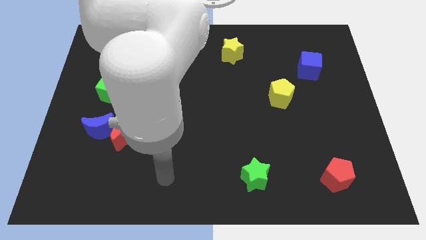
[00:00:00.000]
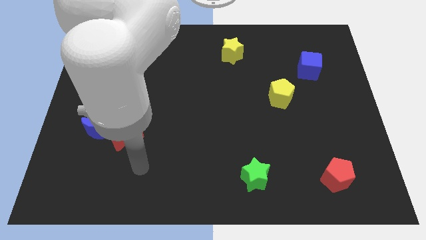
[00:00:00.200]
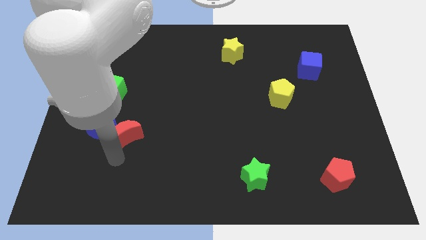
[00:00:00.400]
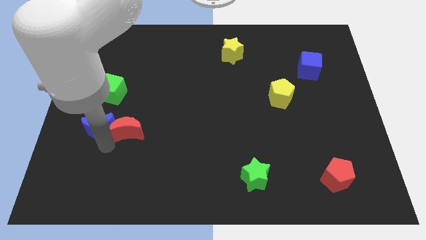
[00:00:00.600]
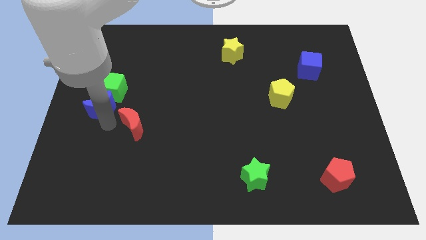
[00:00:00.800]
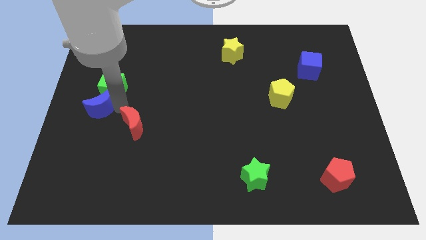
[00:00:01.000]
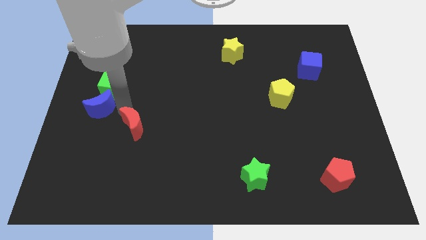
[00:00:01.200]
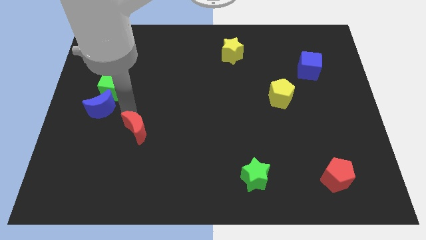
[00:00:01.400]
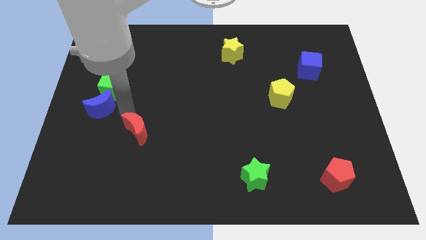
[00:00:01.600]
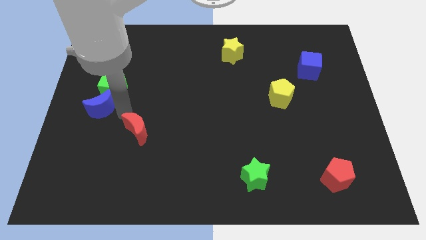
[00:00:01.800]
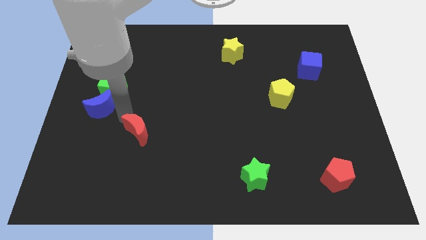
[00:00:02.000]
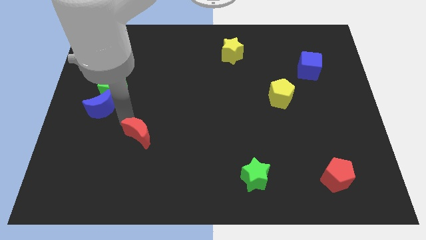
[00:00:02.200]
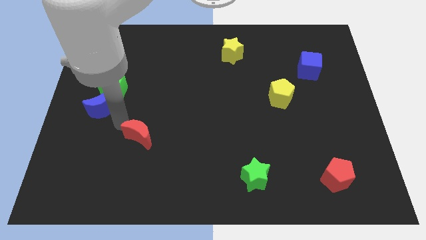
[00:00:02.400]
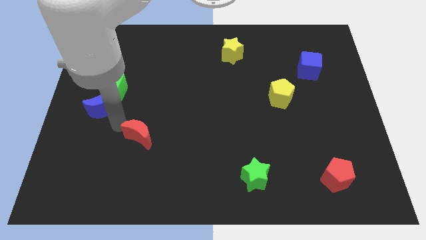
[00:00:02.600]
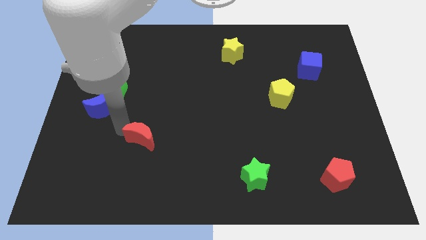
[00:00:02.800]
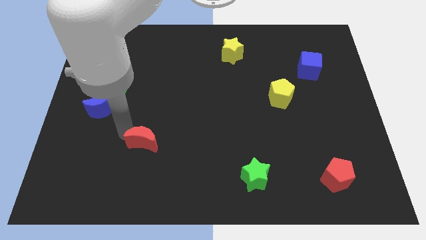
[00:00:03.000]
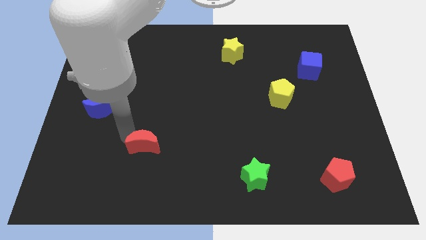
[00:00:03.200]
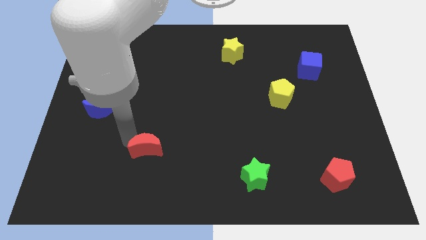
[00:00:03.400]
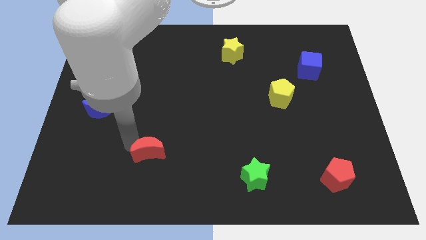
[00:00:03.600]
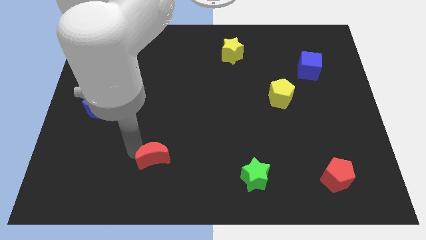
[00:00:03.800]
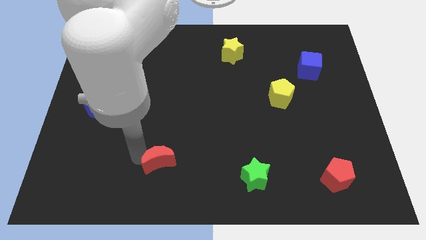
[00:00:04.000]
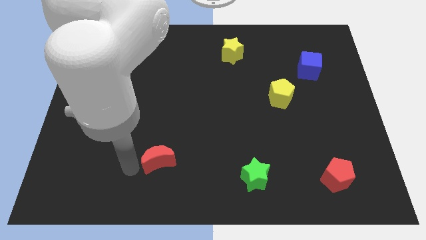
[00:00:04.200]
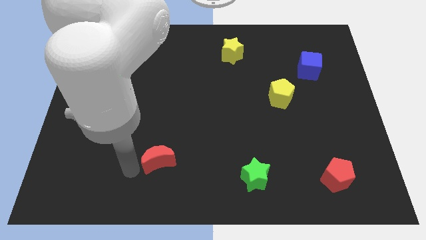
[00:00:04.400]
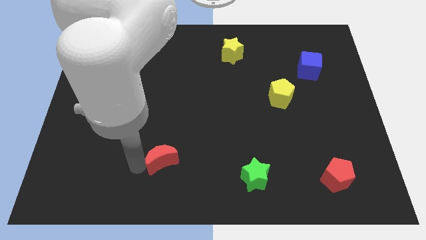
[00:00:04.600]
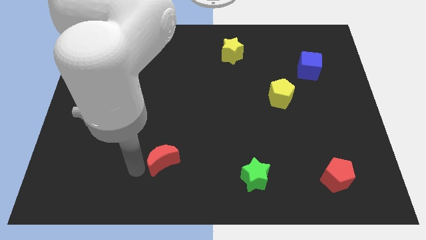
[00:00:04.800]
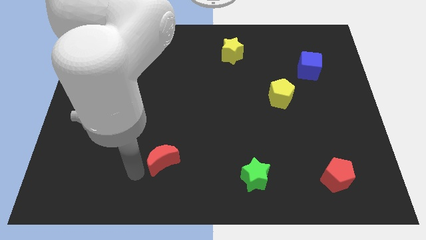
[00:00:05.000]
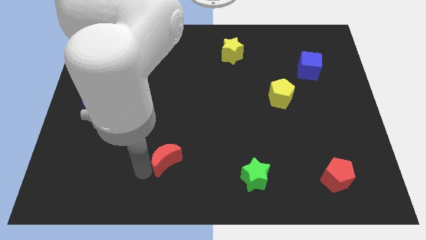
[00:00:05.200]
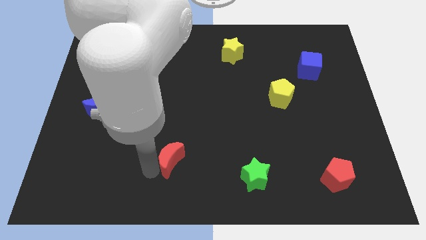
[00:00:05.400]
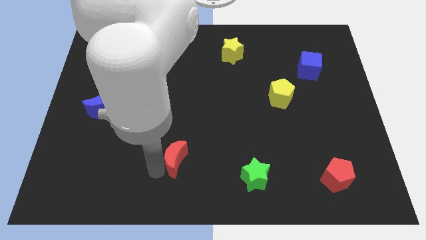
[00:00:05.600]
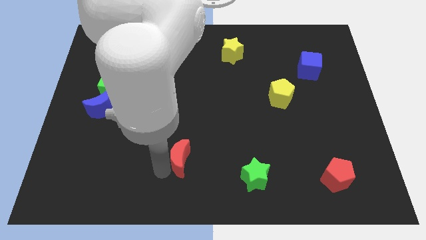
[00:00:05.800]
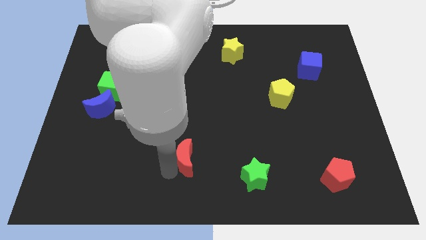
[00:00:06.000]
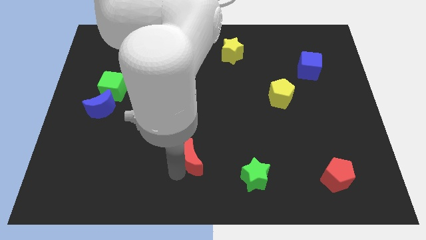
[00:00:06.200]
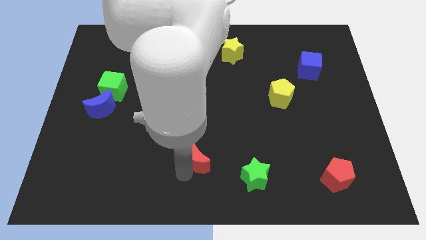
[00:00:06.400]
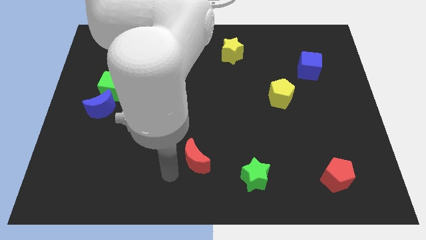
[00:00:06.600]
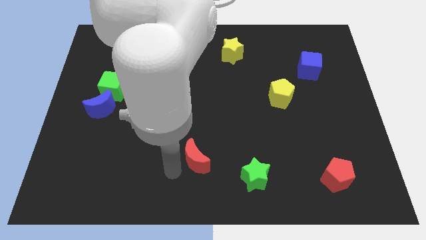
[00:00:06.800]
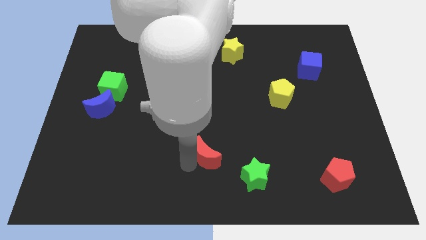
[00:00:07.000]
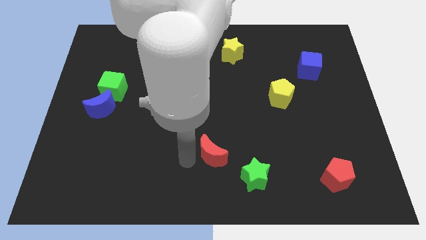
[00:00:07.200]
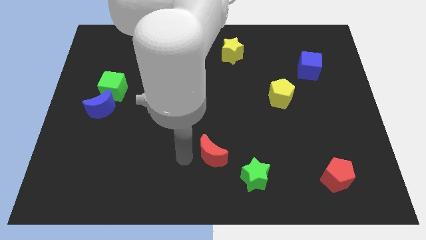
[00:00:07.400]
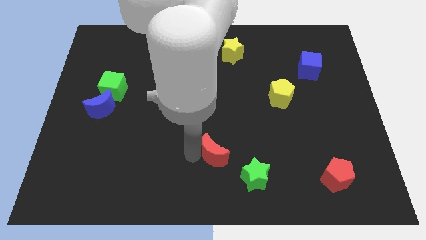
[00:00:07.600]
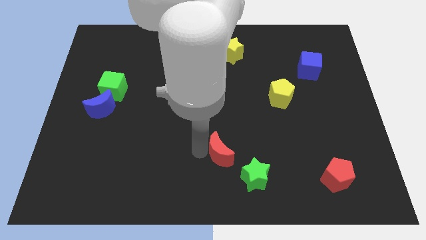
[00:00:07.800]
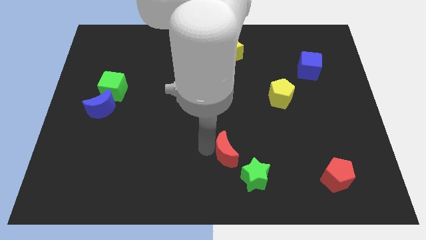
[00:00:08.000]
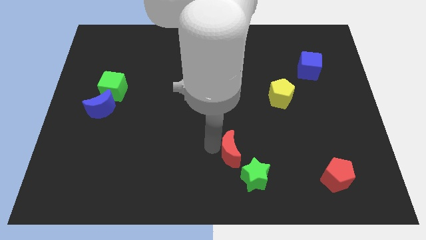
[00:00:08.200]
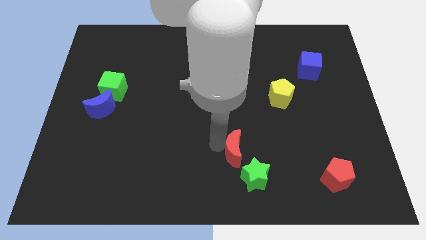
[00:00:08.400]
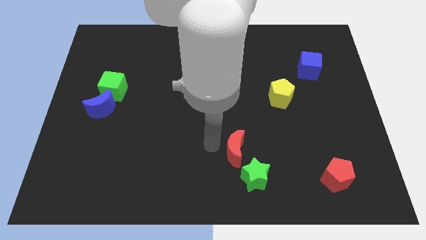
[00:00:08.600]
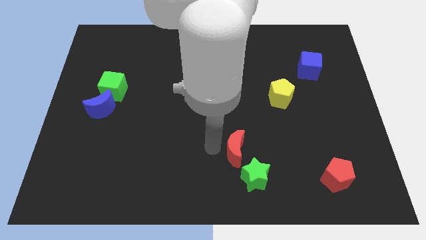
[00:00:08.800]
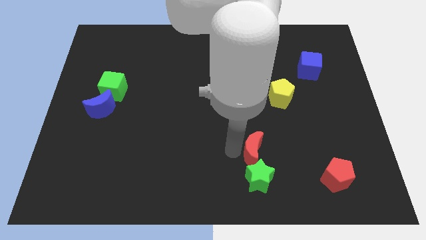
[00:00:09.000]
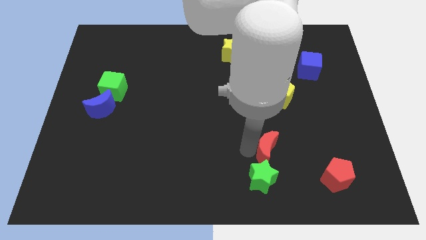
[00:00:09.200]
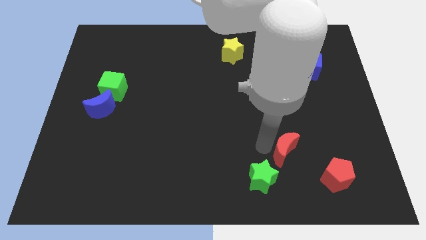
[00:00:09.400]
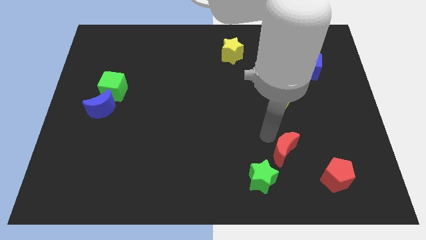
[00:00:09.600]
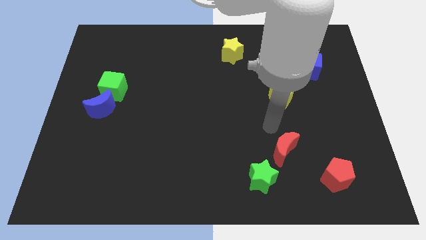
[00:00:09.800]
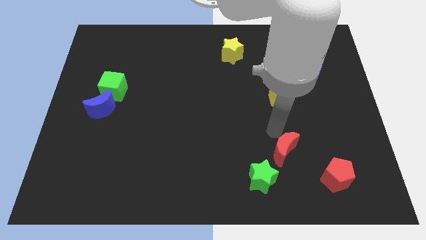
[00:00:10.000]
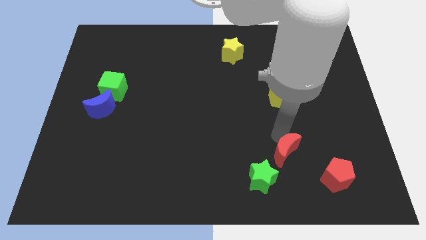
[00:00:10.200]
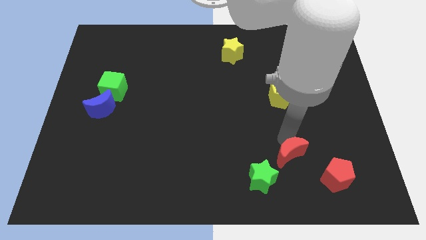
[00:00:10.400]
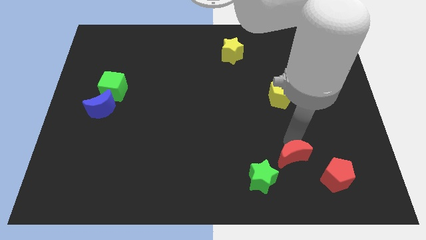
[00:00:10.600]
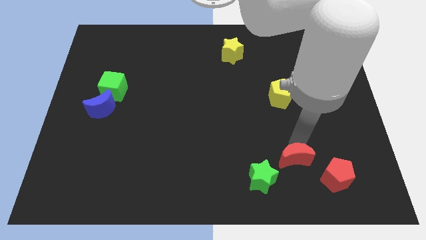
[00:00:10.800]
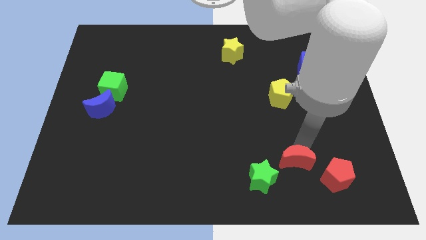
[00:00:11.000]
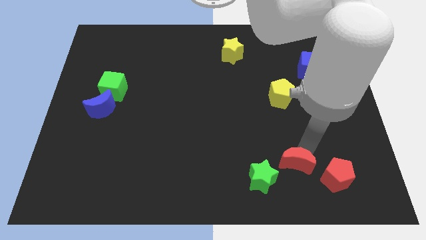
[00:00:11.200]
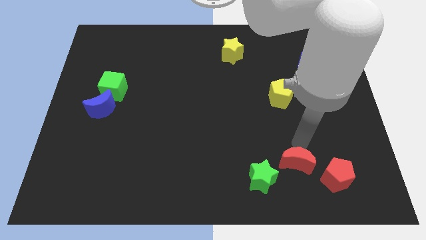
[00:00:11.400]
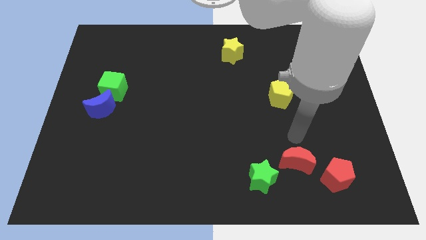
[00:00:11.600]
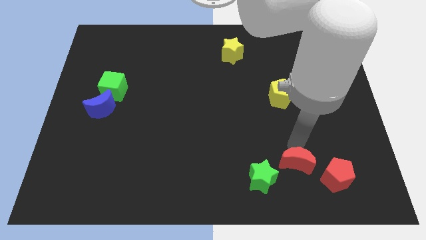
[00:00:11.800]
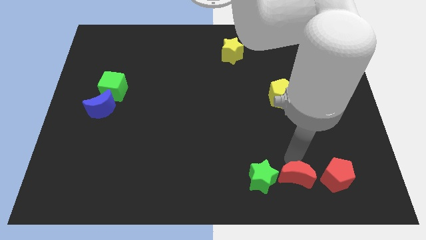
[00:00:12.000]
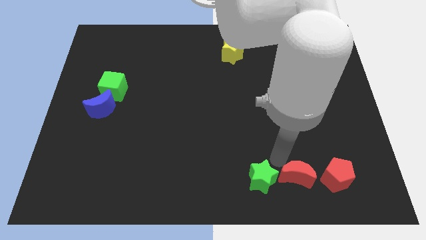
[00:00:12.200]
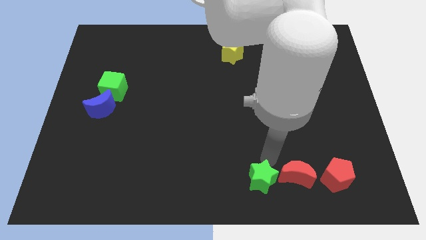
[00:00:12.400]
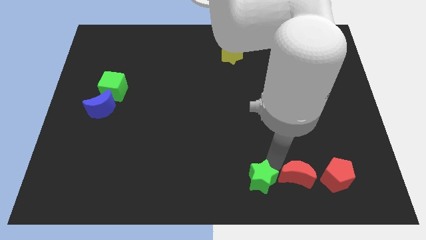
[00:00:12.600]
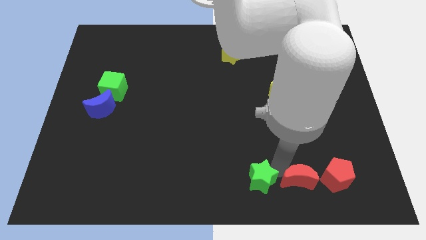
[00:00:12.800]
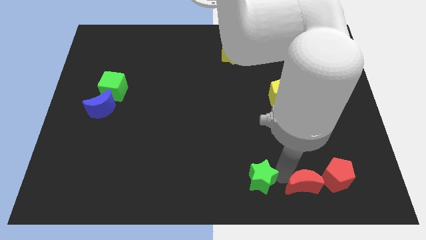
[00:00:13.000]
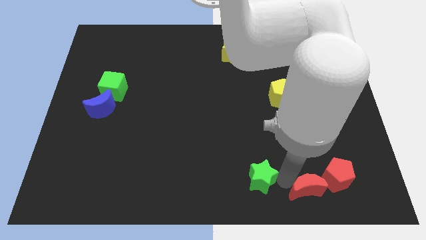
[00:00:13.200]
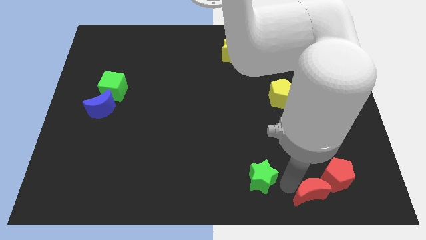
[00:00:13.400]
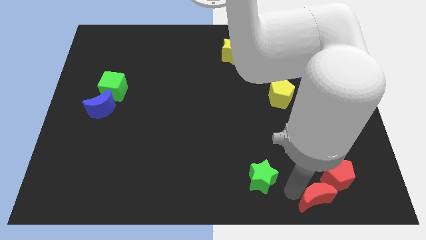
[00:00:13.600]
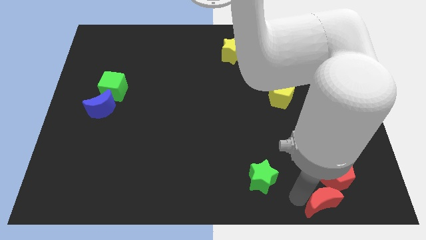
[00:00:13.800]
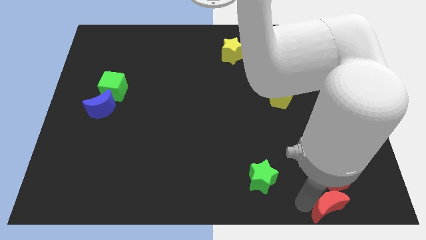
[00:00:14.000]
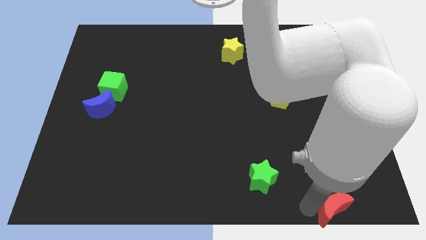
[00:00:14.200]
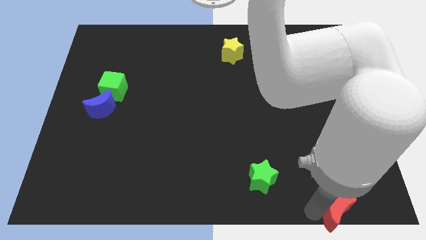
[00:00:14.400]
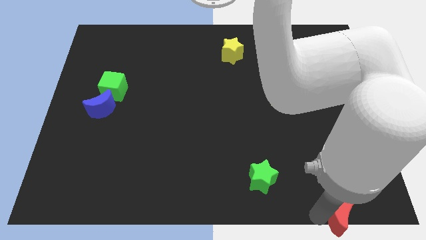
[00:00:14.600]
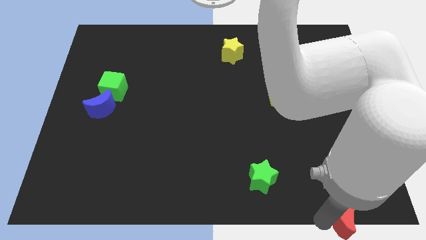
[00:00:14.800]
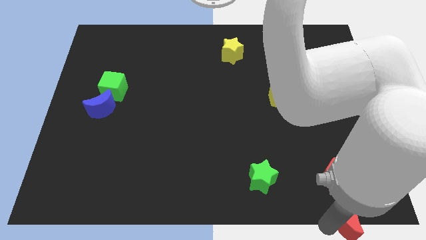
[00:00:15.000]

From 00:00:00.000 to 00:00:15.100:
push the red moon to the lower right corner
